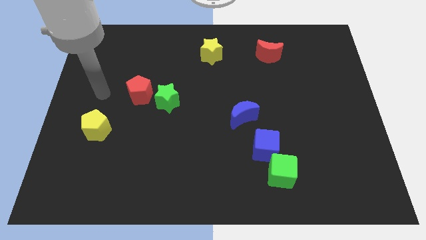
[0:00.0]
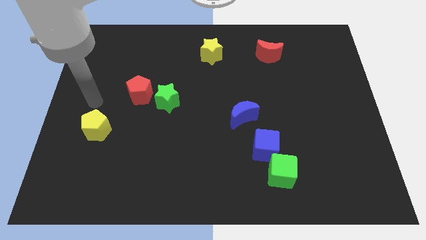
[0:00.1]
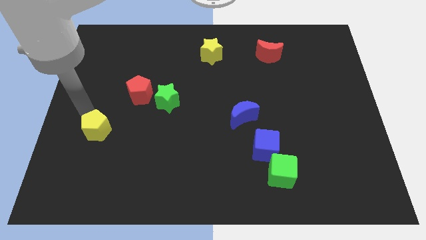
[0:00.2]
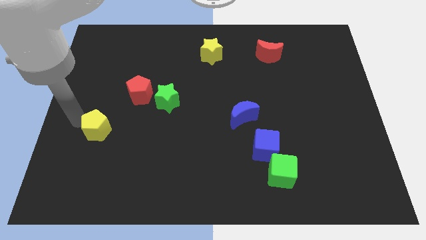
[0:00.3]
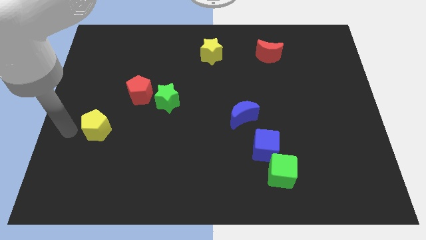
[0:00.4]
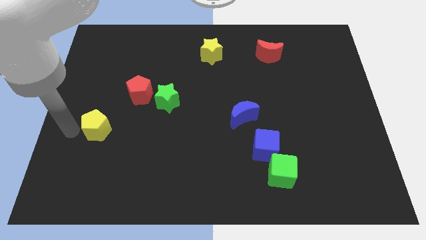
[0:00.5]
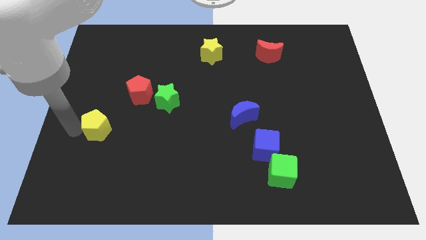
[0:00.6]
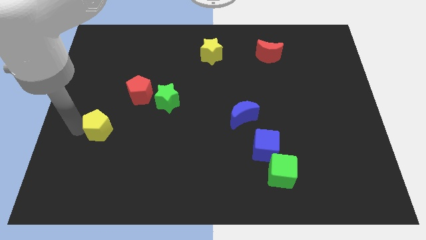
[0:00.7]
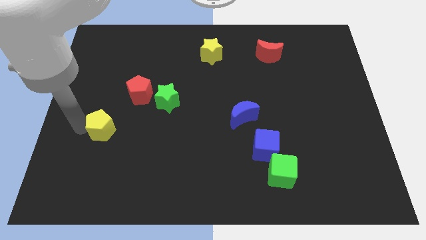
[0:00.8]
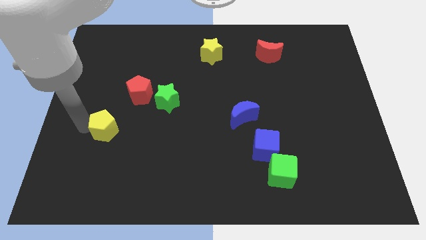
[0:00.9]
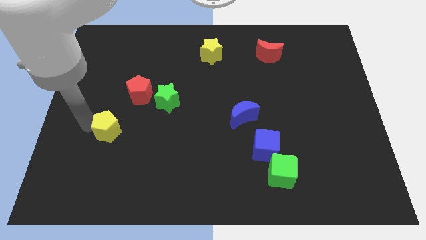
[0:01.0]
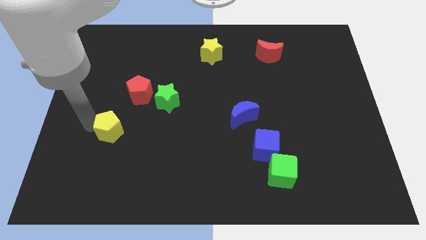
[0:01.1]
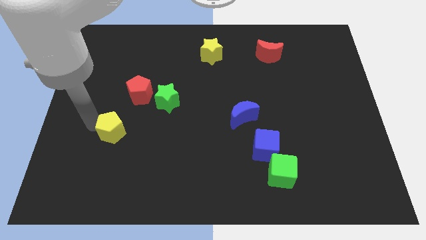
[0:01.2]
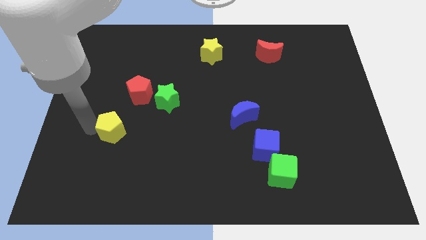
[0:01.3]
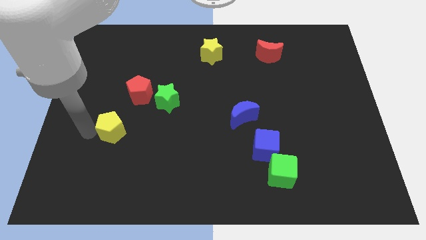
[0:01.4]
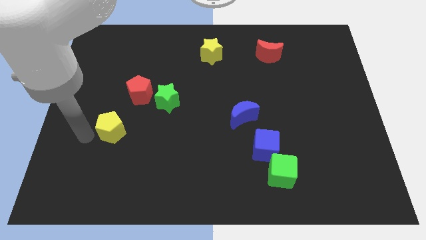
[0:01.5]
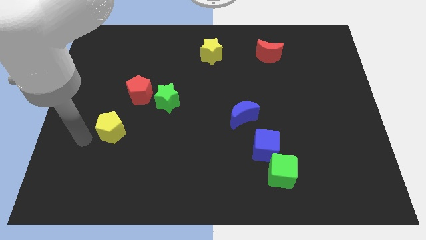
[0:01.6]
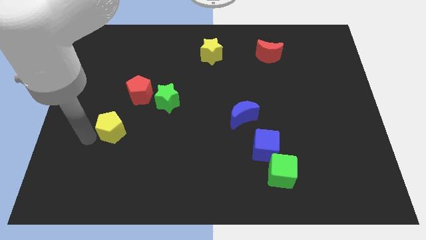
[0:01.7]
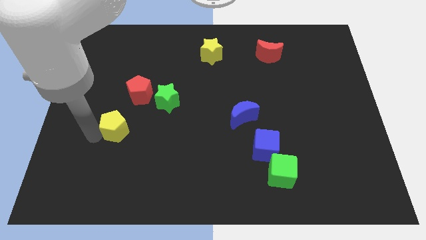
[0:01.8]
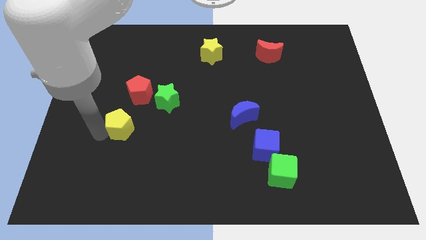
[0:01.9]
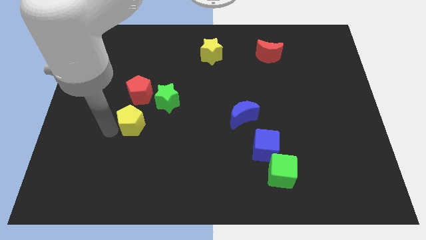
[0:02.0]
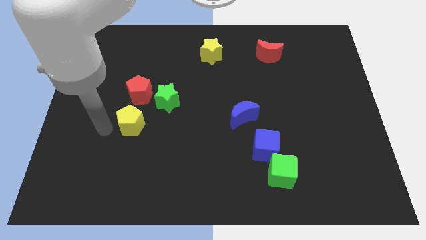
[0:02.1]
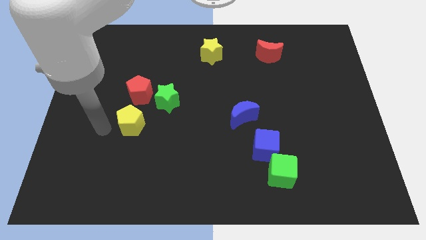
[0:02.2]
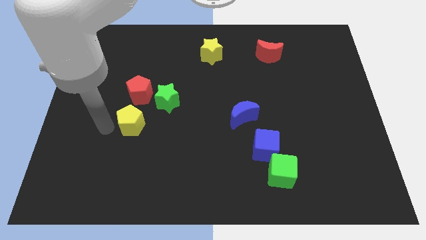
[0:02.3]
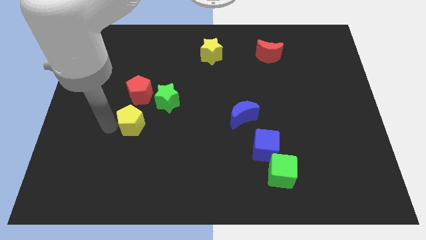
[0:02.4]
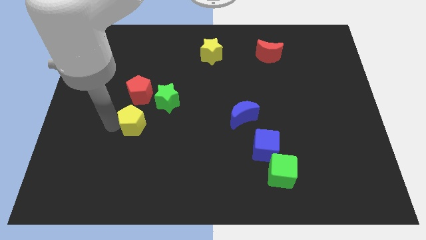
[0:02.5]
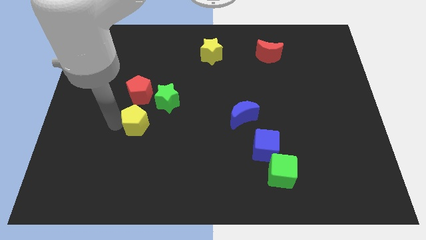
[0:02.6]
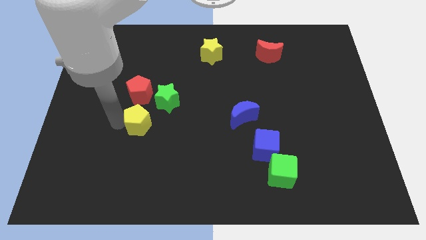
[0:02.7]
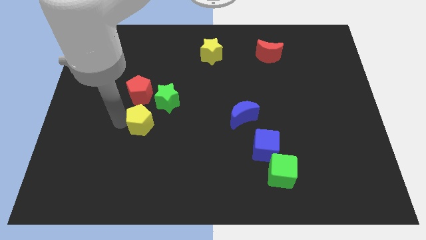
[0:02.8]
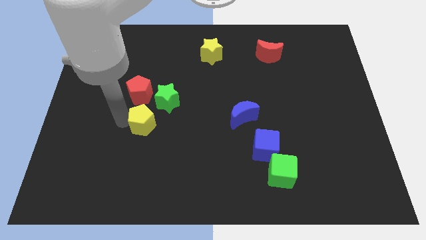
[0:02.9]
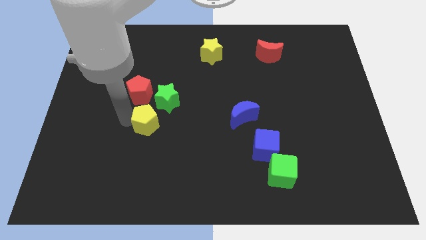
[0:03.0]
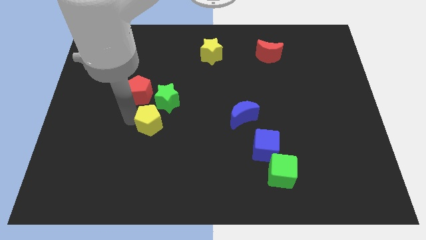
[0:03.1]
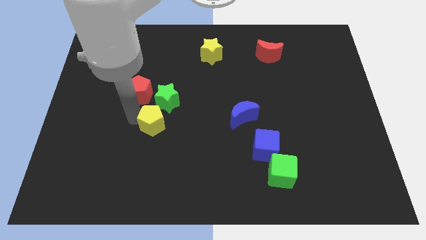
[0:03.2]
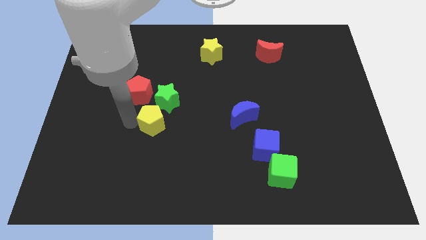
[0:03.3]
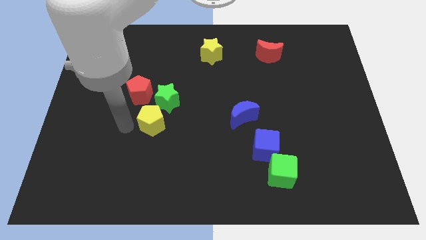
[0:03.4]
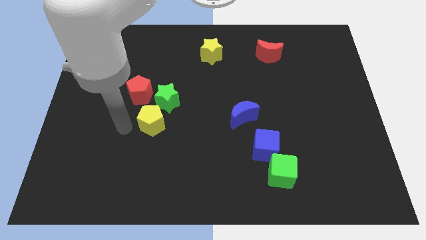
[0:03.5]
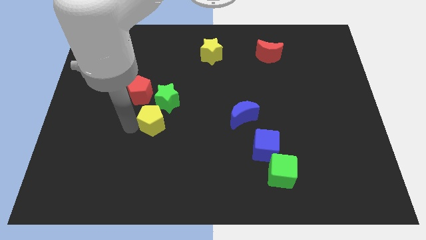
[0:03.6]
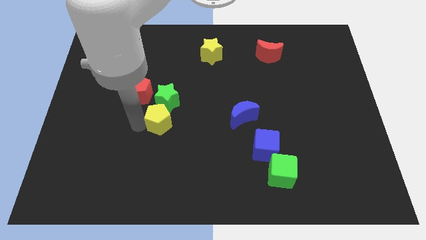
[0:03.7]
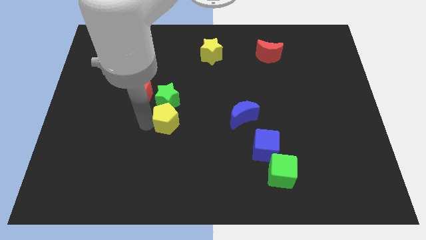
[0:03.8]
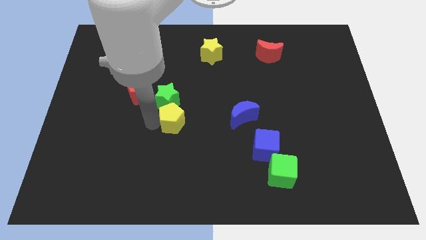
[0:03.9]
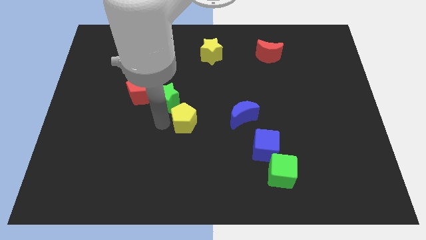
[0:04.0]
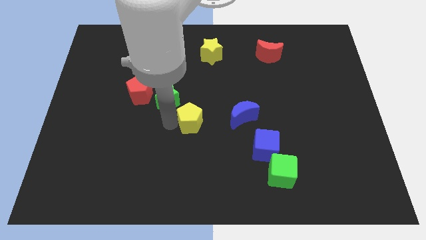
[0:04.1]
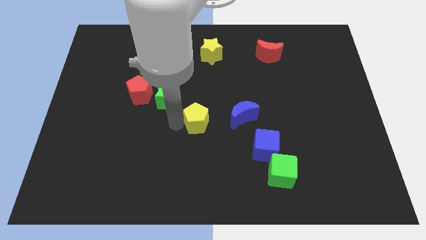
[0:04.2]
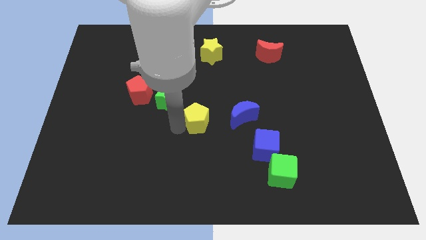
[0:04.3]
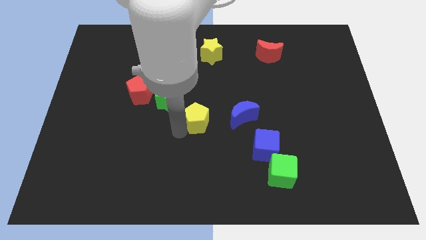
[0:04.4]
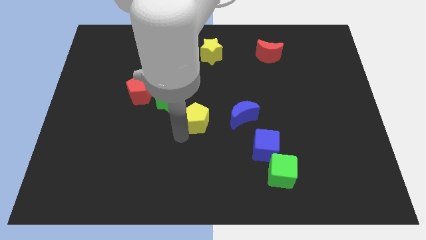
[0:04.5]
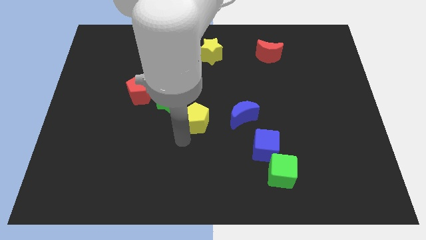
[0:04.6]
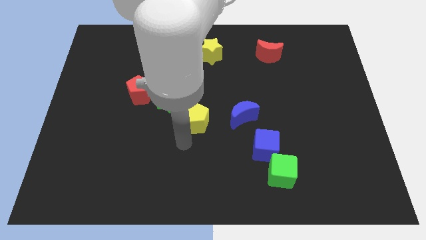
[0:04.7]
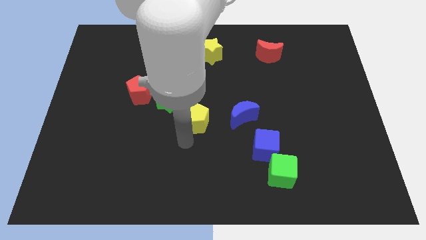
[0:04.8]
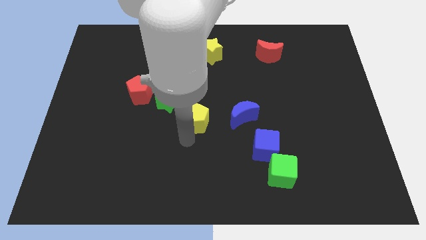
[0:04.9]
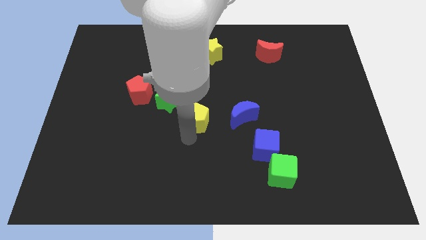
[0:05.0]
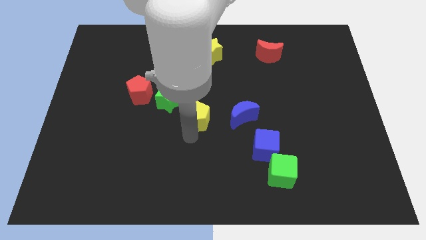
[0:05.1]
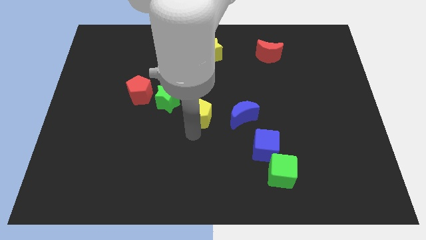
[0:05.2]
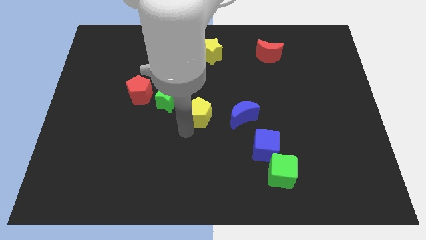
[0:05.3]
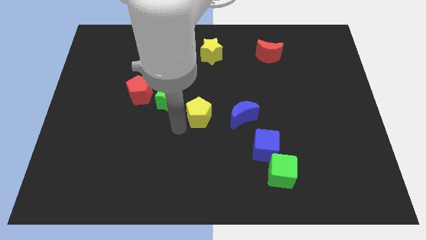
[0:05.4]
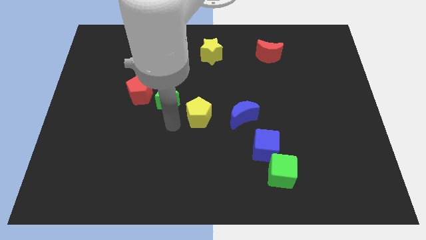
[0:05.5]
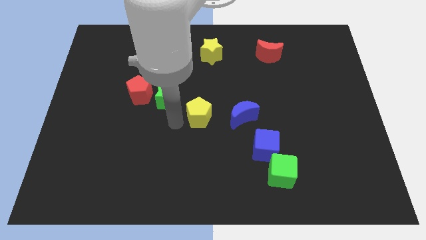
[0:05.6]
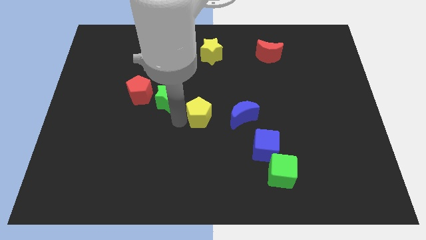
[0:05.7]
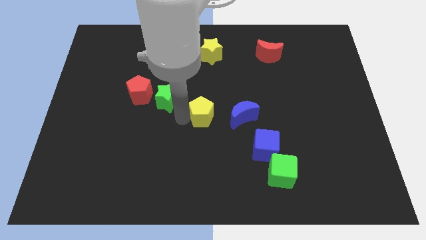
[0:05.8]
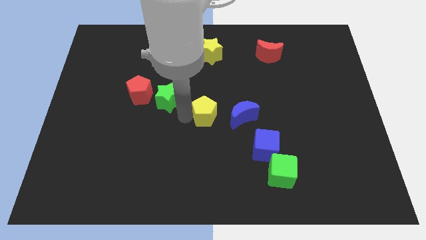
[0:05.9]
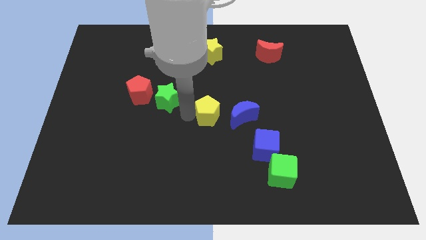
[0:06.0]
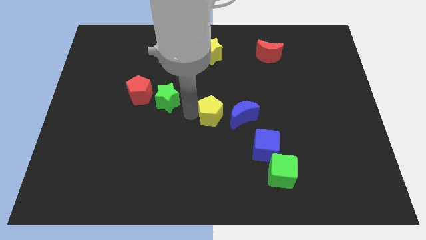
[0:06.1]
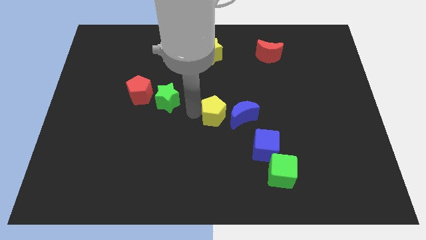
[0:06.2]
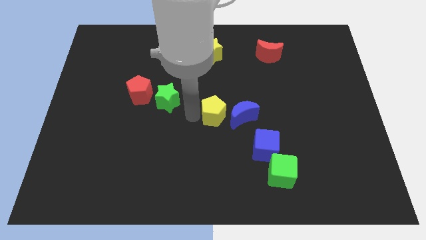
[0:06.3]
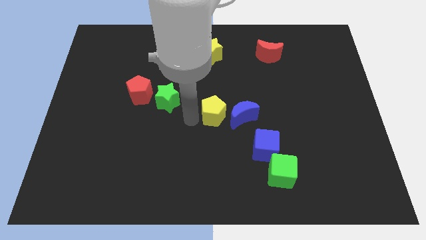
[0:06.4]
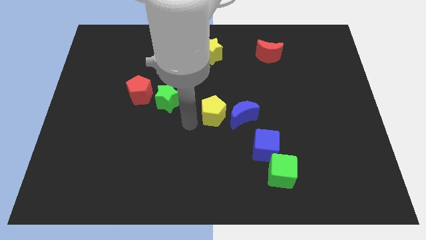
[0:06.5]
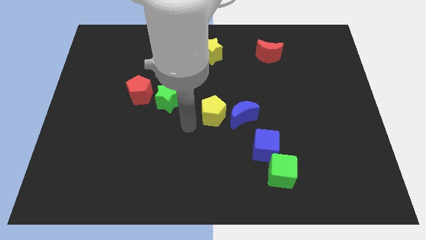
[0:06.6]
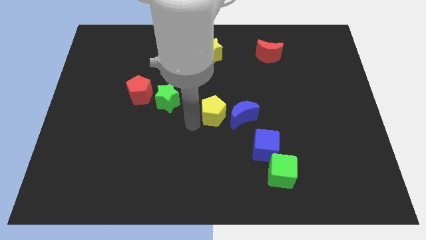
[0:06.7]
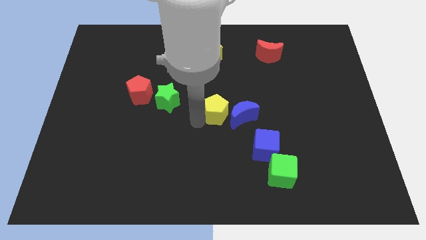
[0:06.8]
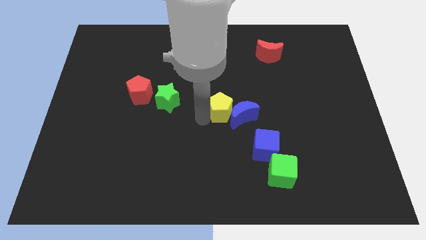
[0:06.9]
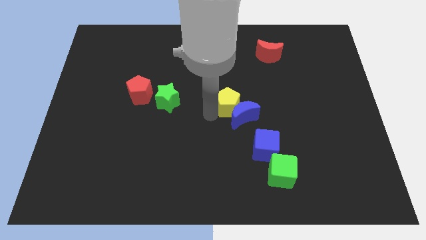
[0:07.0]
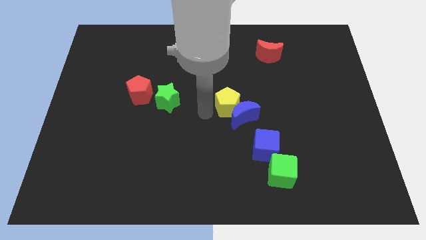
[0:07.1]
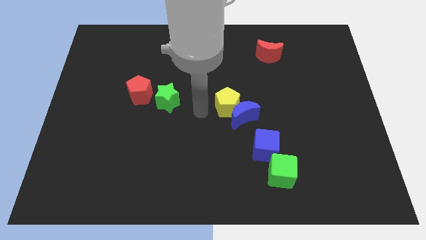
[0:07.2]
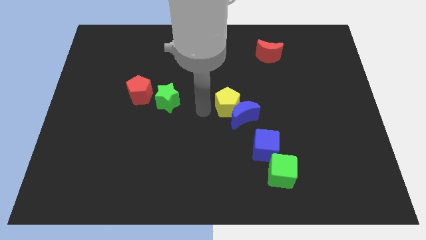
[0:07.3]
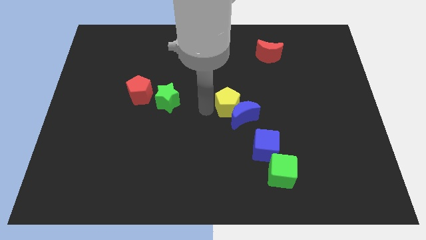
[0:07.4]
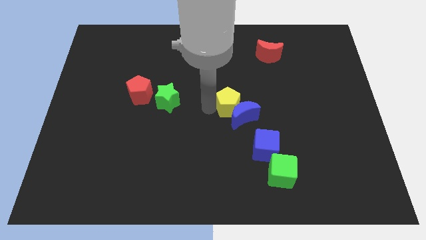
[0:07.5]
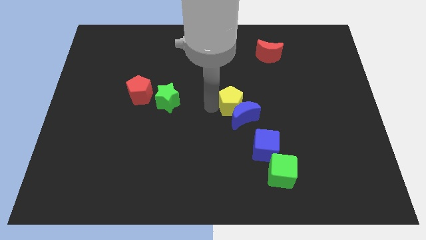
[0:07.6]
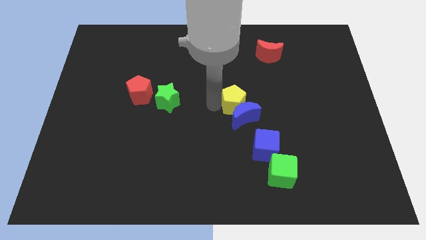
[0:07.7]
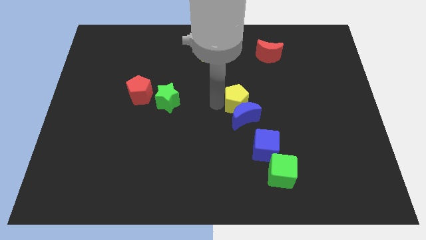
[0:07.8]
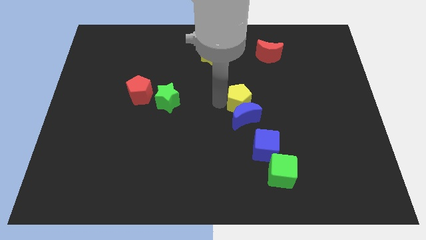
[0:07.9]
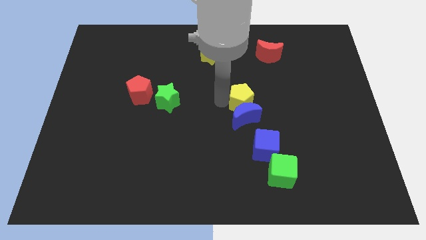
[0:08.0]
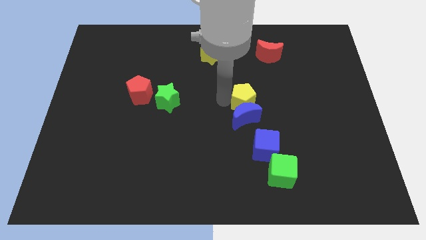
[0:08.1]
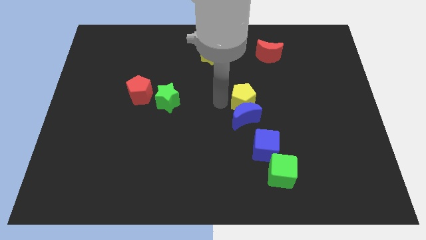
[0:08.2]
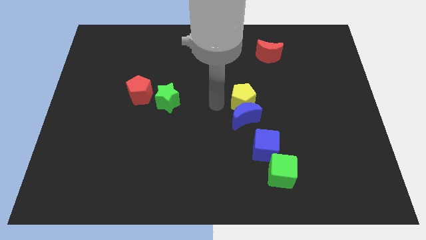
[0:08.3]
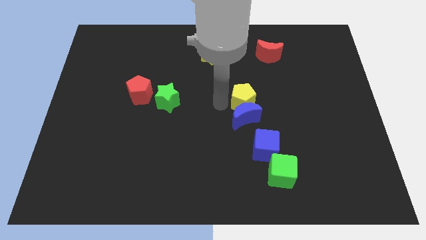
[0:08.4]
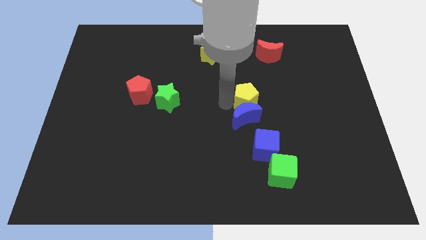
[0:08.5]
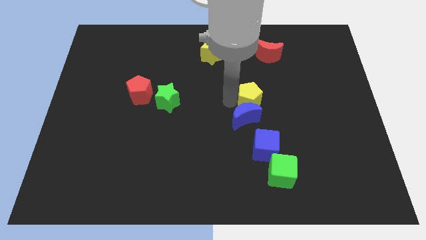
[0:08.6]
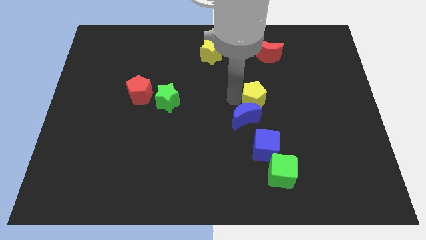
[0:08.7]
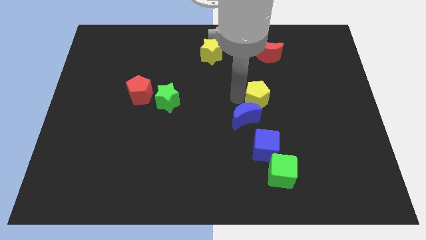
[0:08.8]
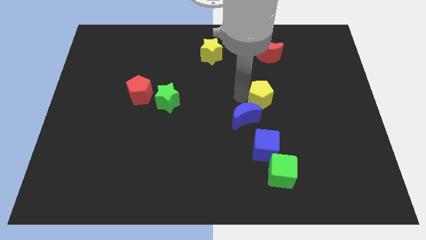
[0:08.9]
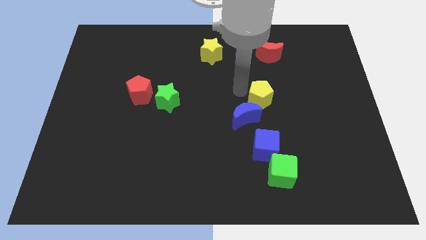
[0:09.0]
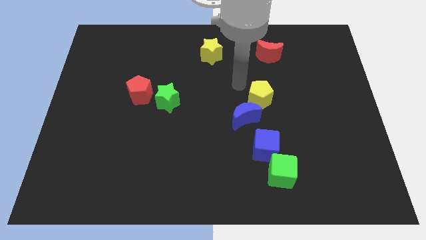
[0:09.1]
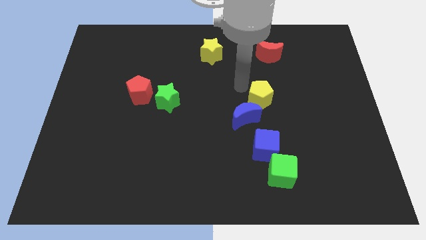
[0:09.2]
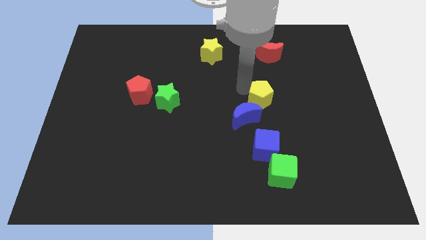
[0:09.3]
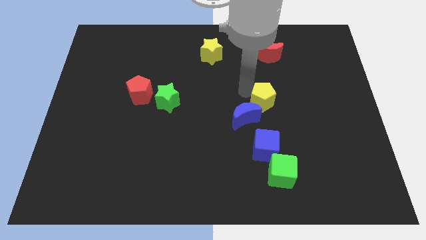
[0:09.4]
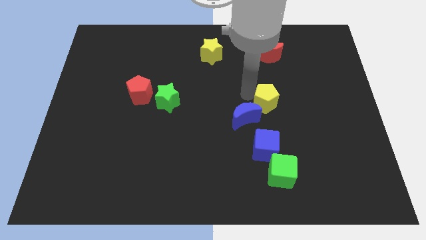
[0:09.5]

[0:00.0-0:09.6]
move the yellow pentagon to the right of the blue moon
